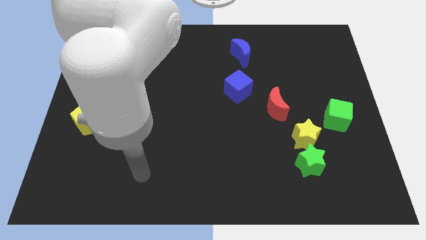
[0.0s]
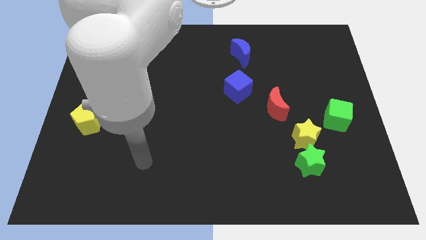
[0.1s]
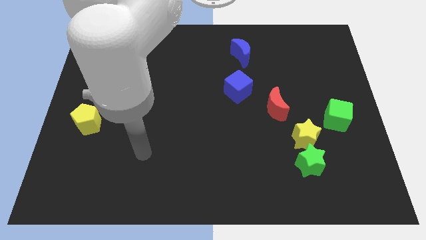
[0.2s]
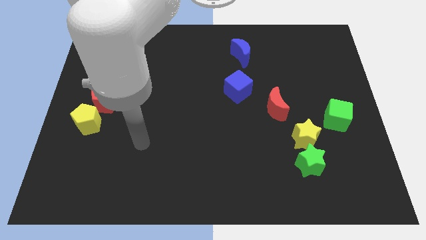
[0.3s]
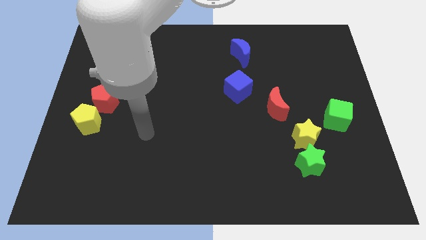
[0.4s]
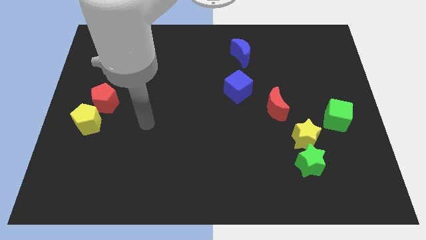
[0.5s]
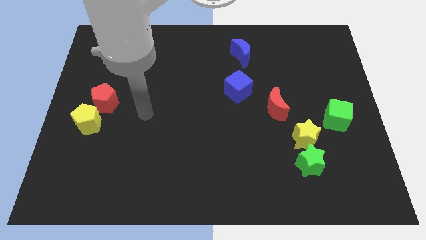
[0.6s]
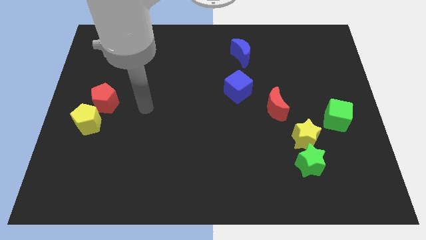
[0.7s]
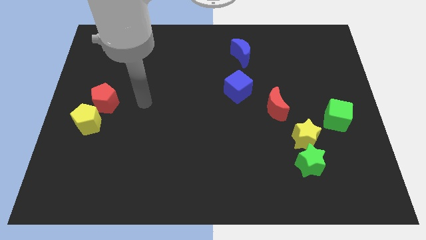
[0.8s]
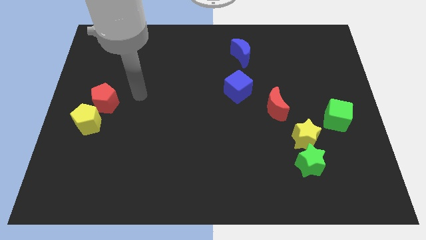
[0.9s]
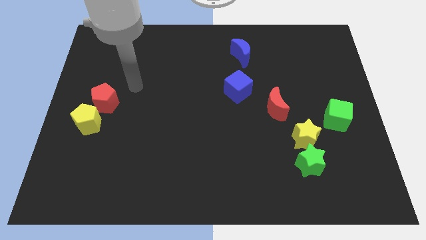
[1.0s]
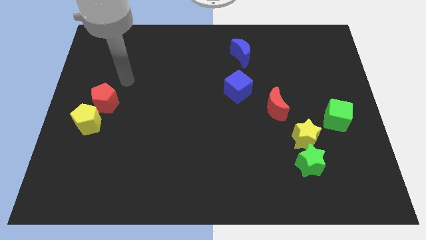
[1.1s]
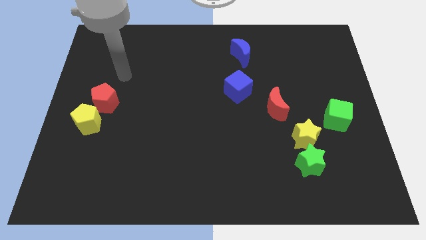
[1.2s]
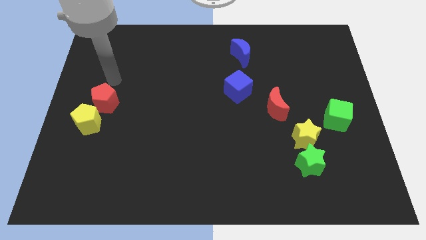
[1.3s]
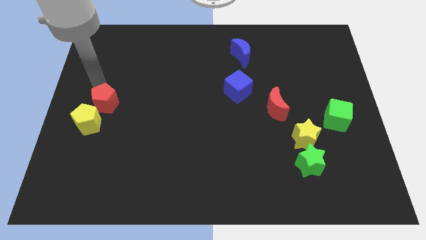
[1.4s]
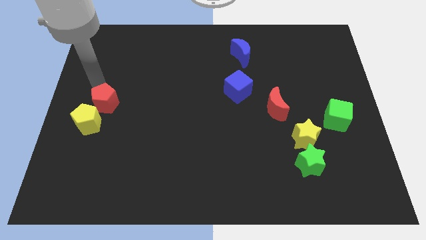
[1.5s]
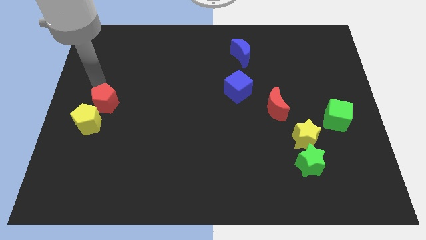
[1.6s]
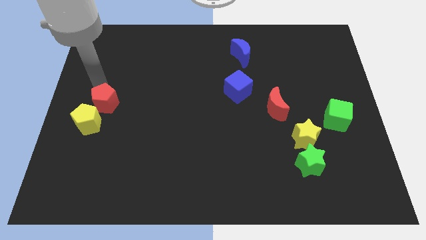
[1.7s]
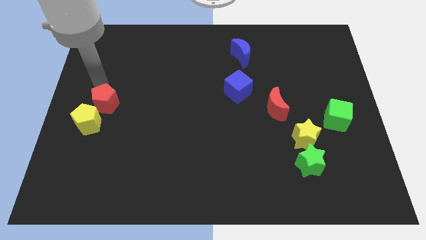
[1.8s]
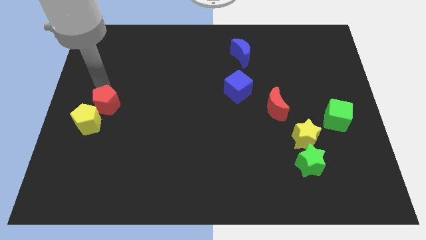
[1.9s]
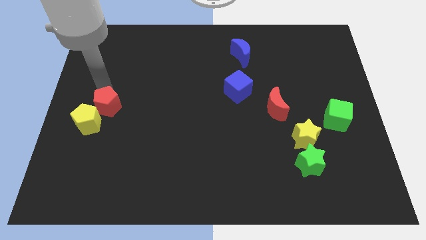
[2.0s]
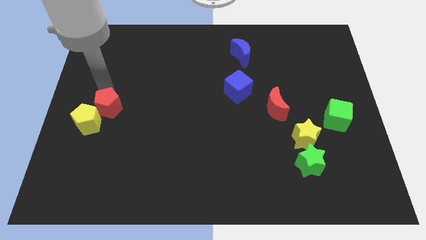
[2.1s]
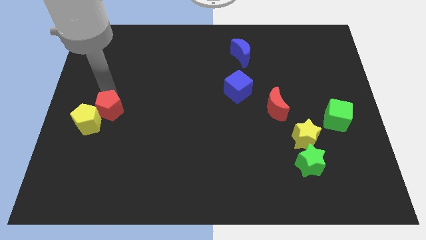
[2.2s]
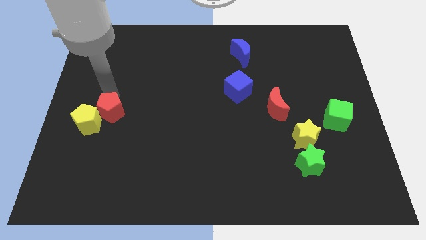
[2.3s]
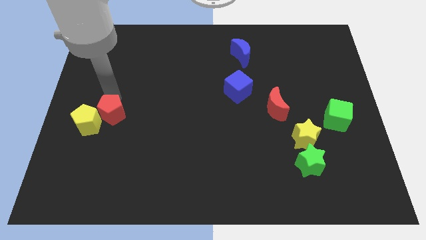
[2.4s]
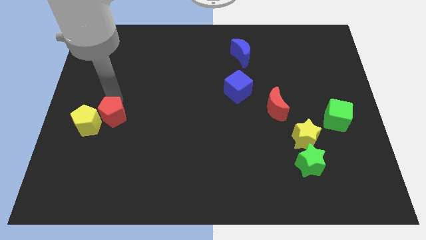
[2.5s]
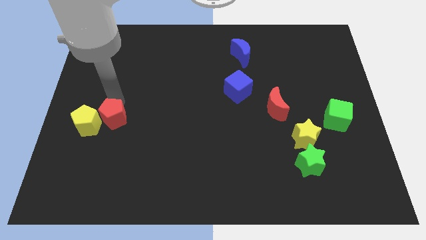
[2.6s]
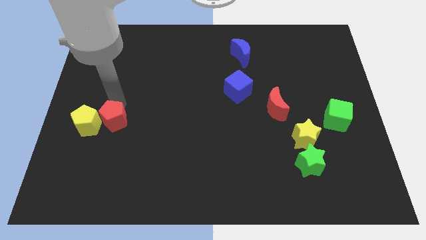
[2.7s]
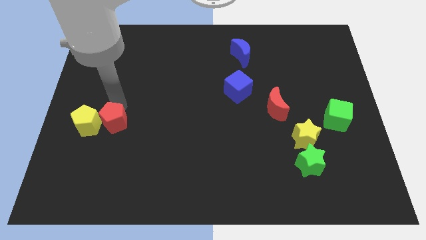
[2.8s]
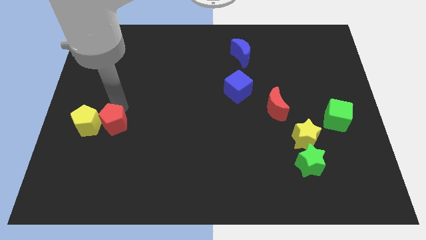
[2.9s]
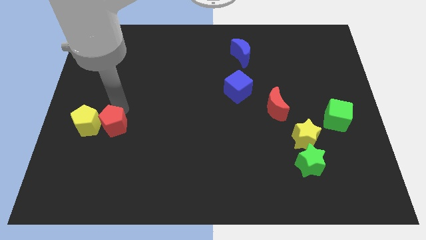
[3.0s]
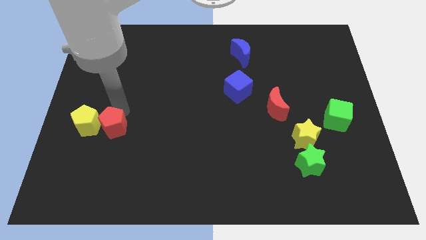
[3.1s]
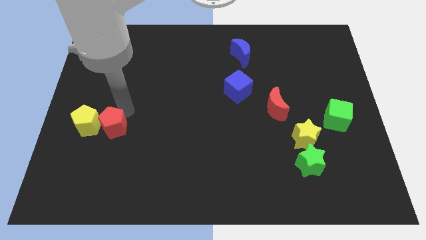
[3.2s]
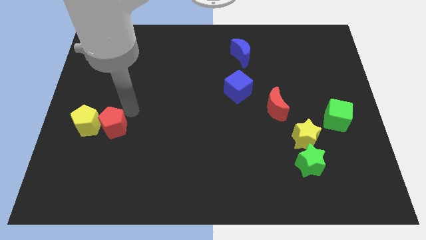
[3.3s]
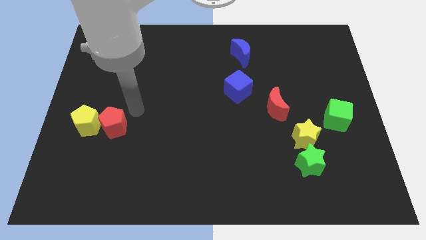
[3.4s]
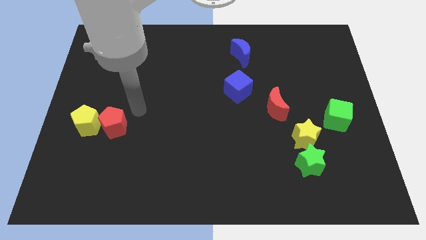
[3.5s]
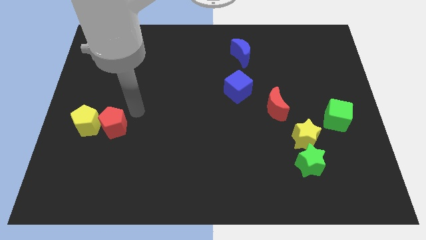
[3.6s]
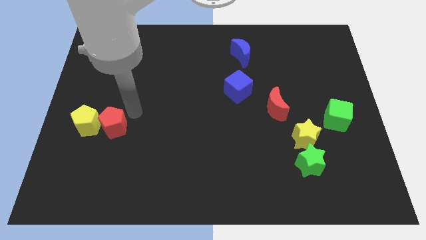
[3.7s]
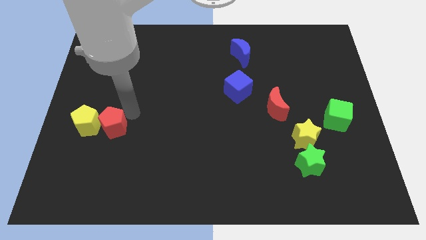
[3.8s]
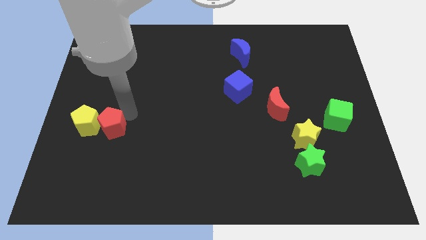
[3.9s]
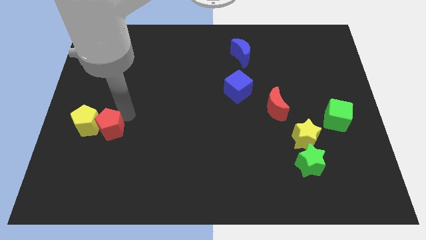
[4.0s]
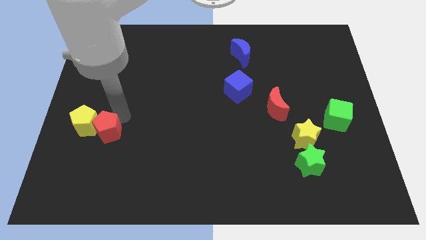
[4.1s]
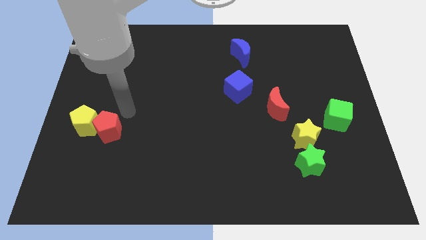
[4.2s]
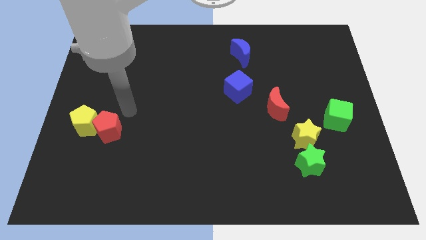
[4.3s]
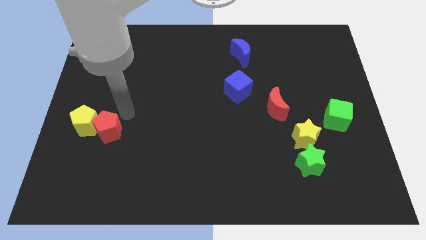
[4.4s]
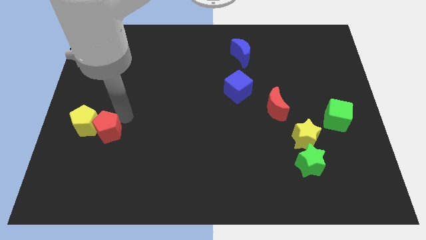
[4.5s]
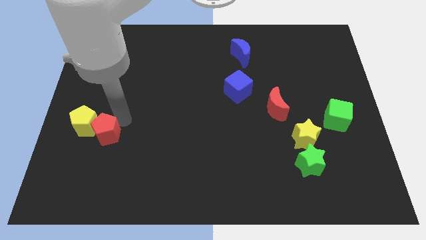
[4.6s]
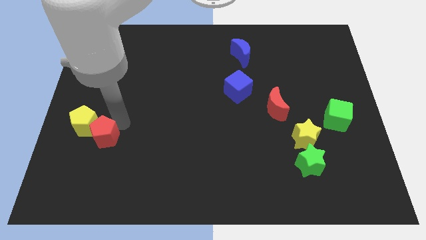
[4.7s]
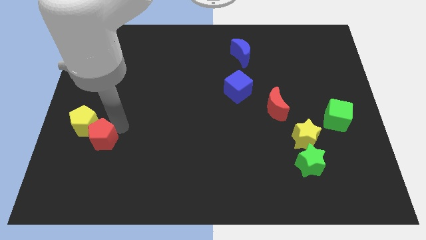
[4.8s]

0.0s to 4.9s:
put the red pentagon to the bottom of the yellow pentagon

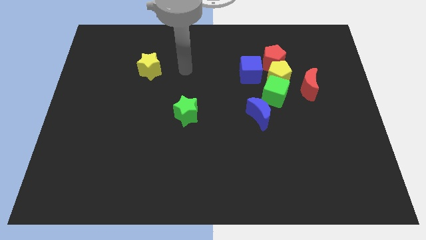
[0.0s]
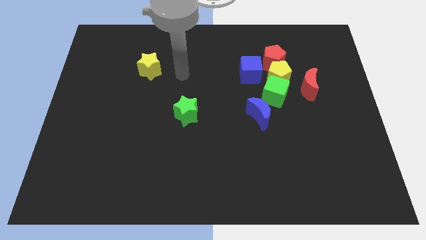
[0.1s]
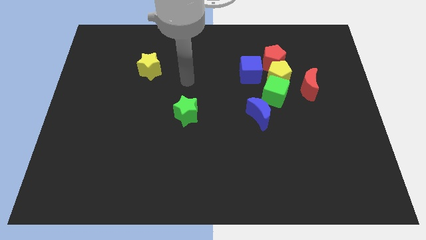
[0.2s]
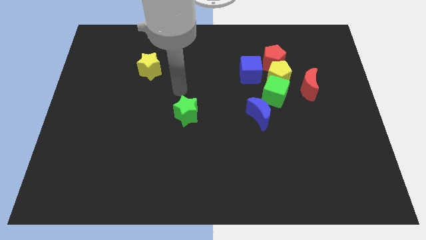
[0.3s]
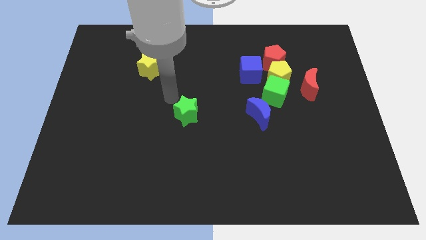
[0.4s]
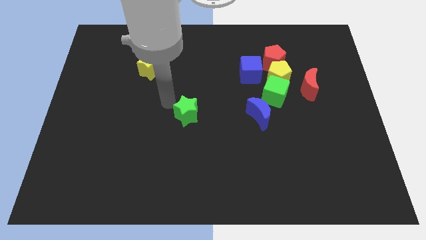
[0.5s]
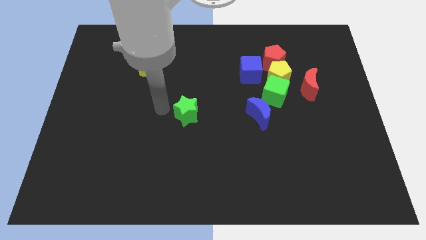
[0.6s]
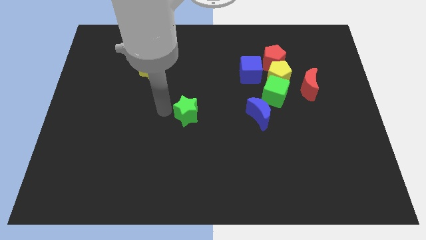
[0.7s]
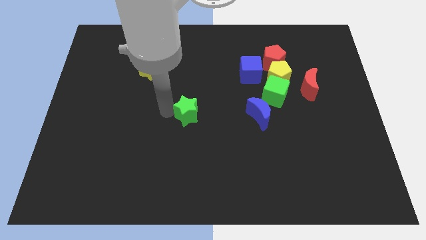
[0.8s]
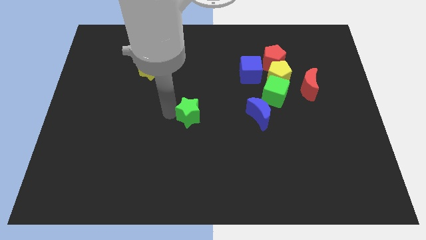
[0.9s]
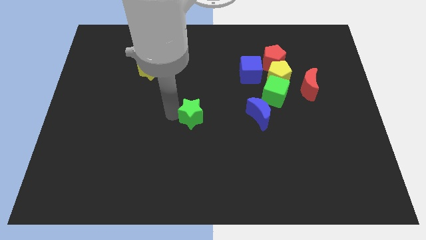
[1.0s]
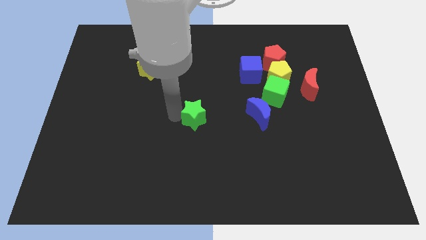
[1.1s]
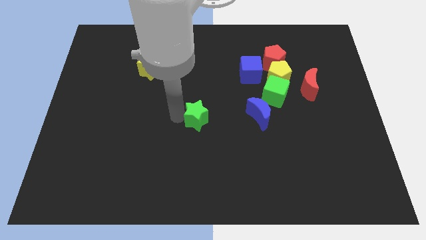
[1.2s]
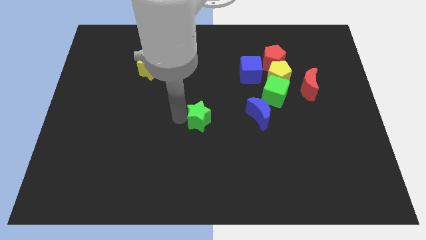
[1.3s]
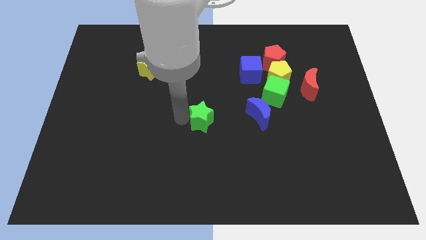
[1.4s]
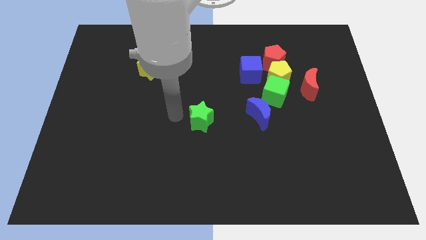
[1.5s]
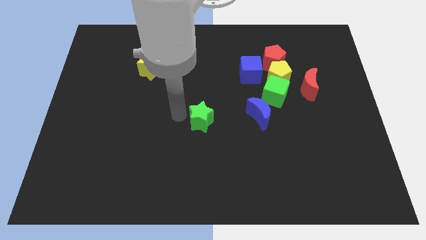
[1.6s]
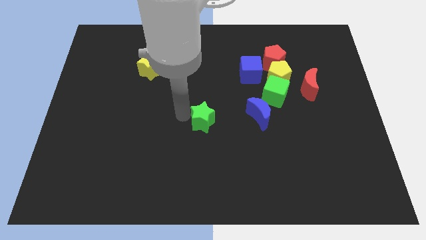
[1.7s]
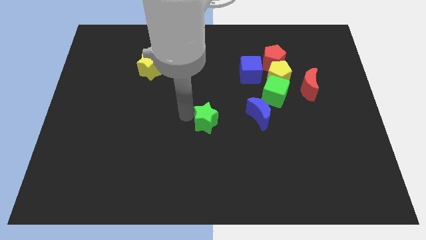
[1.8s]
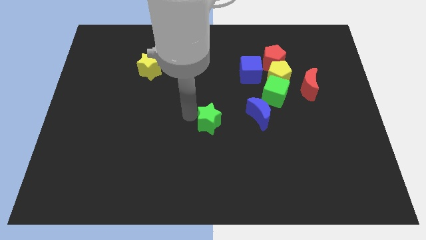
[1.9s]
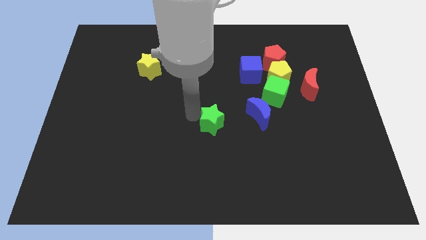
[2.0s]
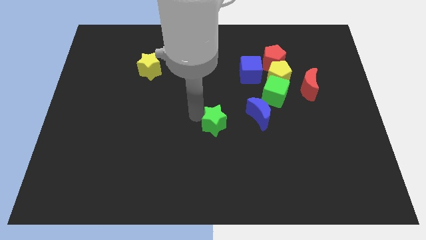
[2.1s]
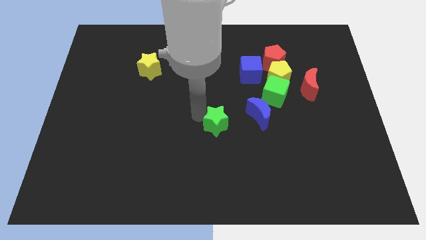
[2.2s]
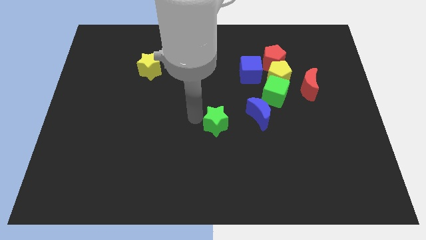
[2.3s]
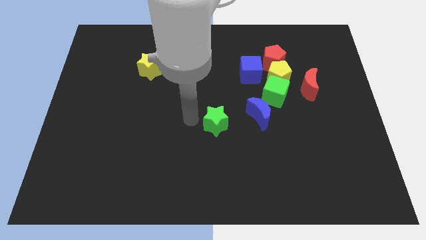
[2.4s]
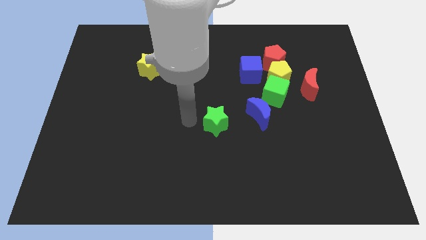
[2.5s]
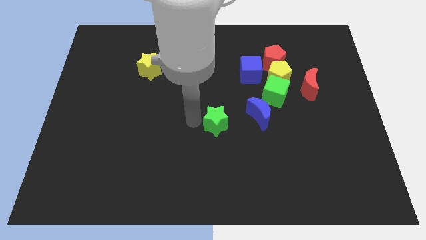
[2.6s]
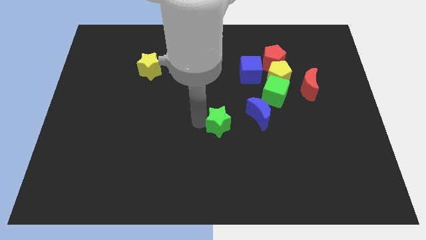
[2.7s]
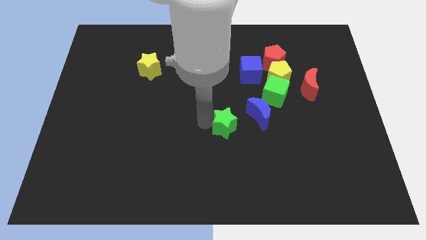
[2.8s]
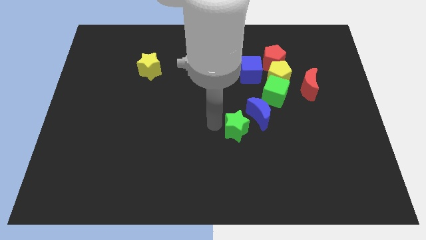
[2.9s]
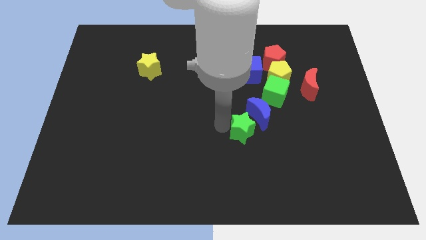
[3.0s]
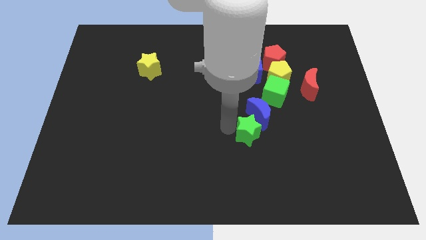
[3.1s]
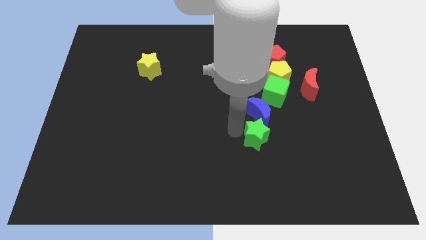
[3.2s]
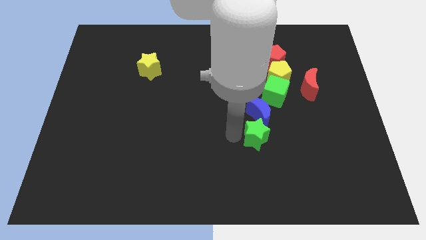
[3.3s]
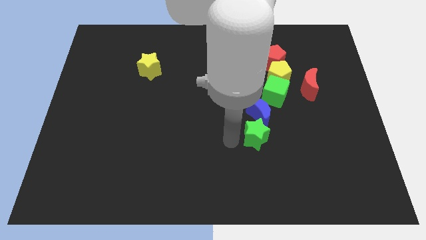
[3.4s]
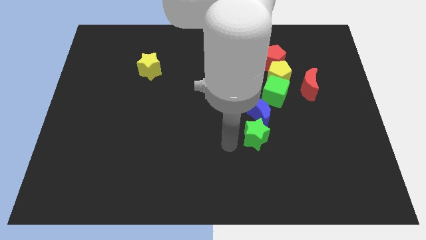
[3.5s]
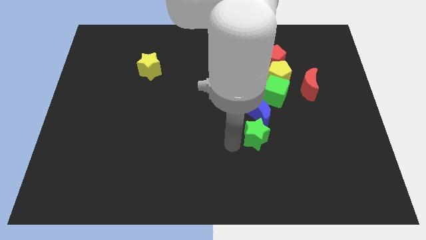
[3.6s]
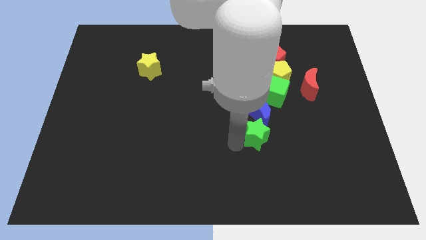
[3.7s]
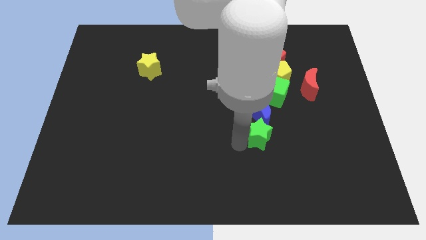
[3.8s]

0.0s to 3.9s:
push the green star to the bottom side of the green cube
